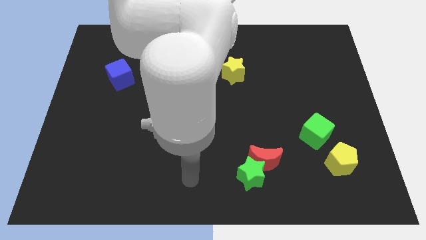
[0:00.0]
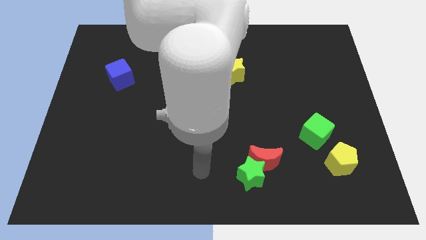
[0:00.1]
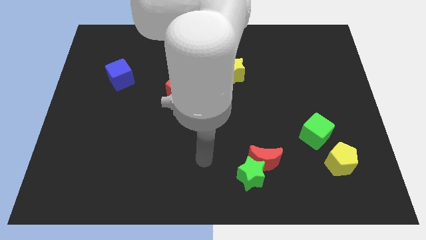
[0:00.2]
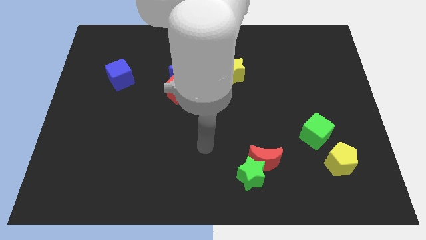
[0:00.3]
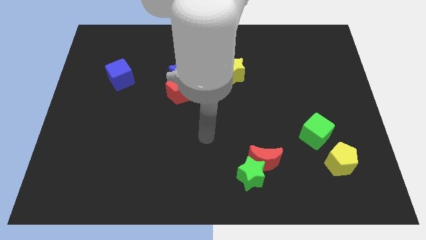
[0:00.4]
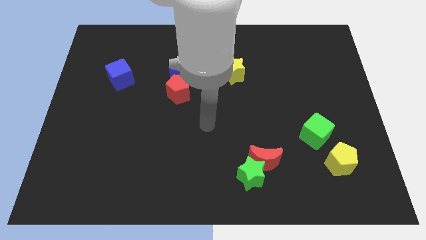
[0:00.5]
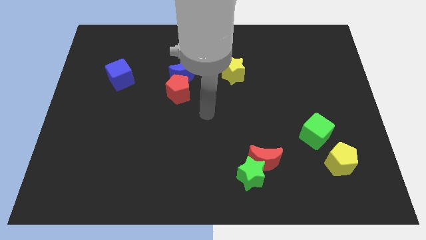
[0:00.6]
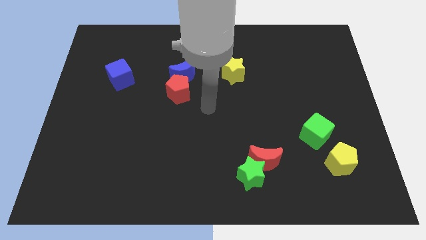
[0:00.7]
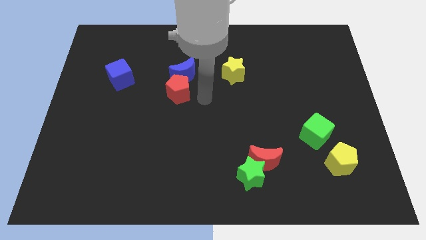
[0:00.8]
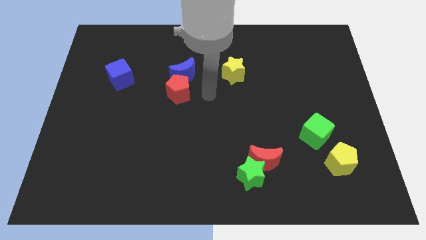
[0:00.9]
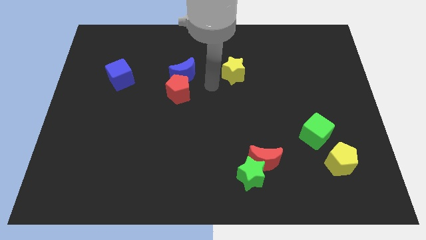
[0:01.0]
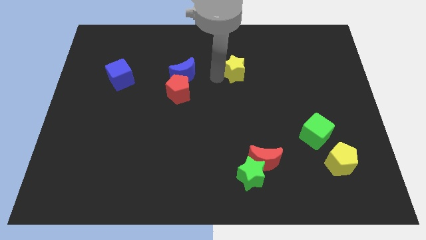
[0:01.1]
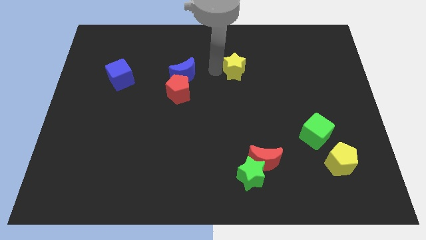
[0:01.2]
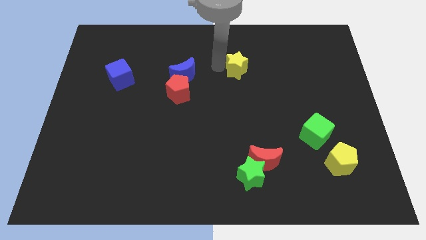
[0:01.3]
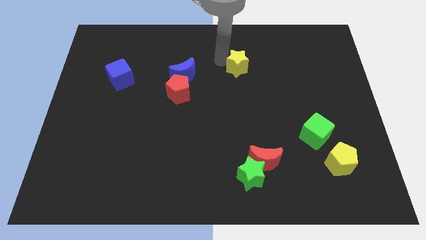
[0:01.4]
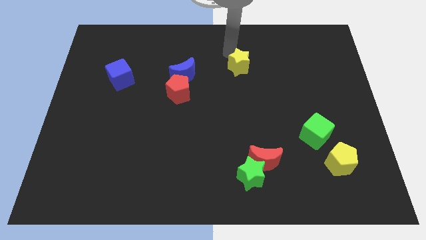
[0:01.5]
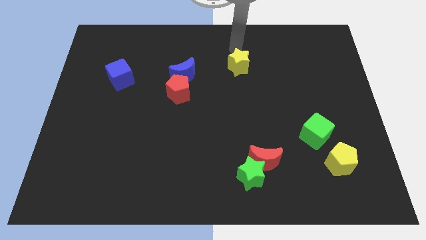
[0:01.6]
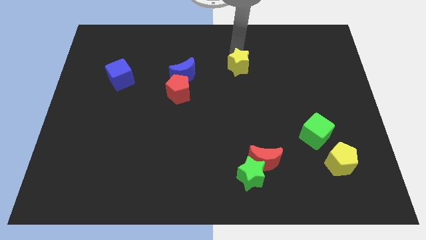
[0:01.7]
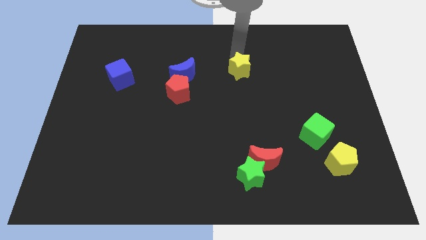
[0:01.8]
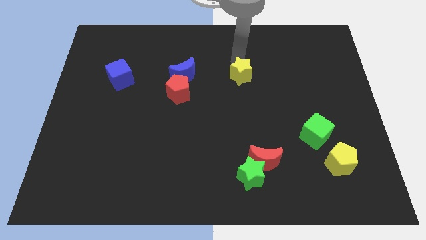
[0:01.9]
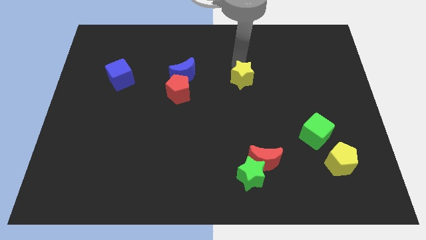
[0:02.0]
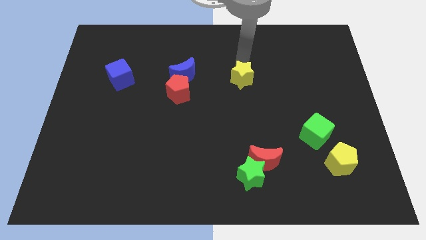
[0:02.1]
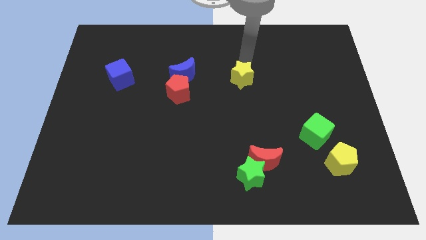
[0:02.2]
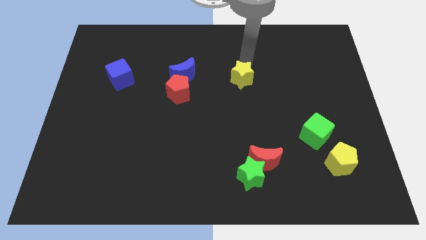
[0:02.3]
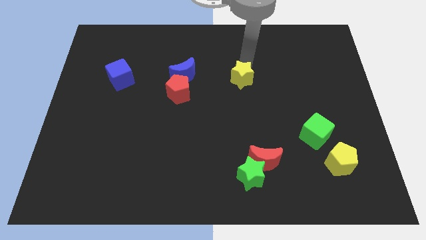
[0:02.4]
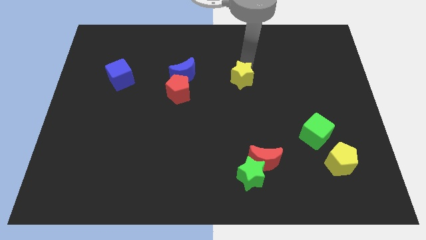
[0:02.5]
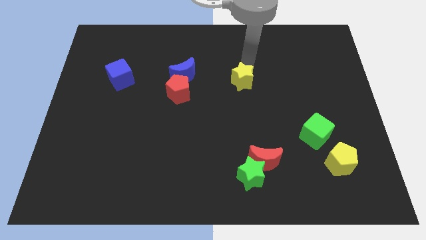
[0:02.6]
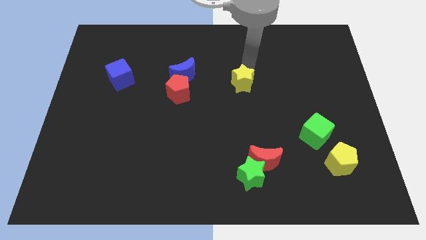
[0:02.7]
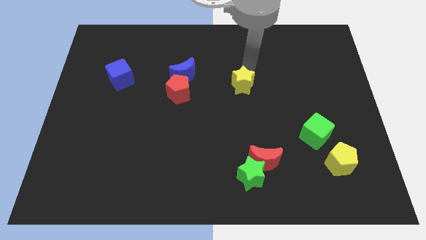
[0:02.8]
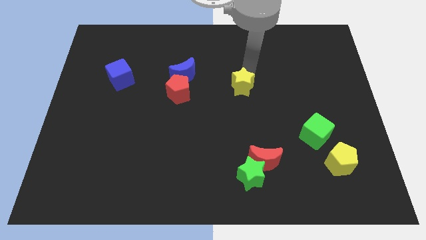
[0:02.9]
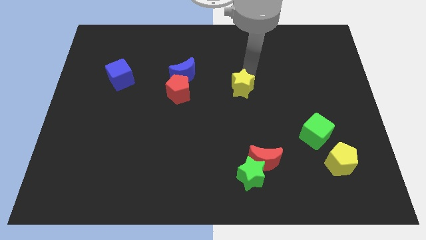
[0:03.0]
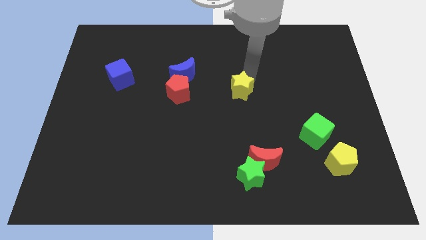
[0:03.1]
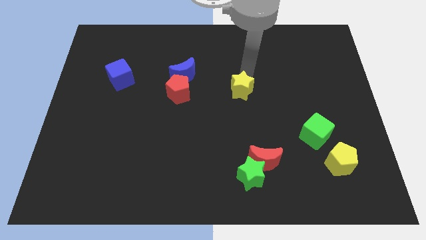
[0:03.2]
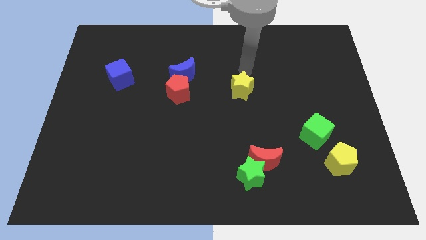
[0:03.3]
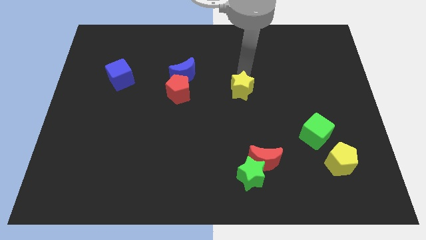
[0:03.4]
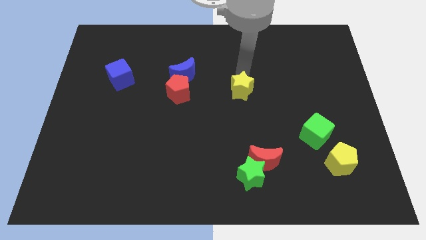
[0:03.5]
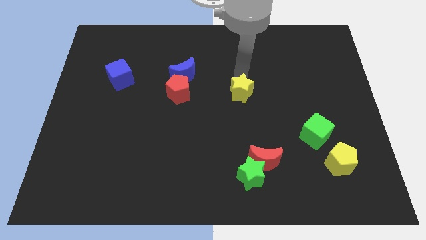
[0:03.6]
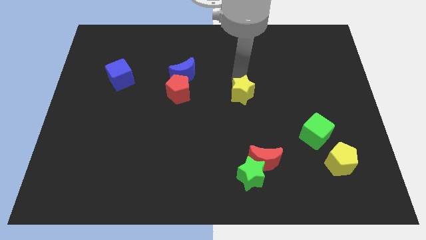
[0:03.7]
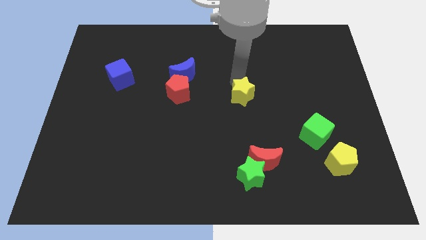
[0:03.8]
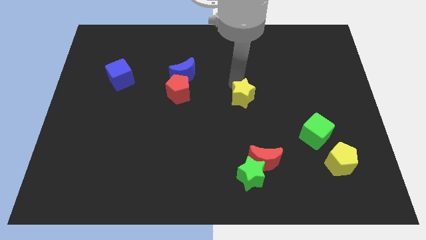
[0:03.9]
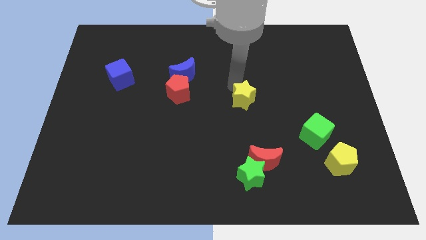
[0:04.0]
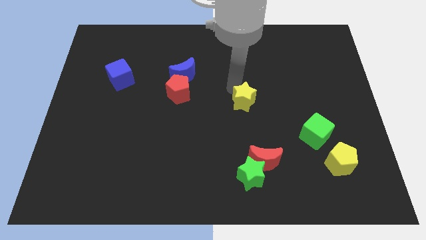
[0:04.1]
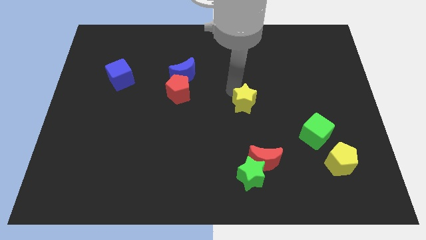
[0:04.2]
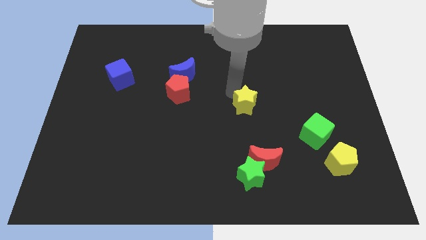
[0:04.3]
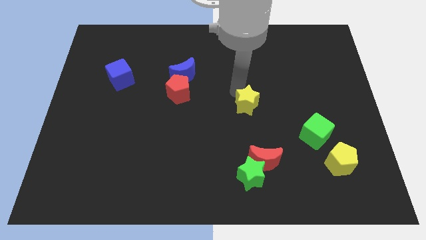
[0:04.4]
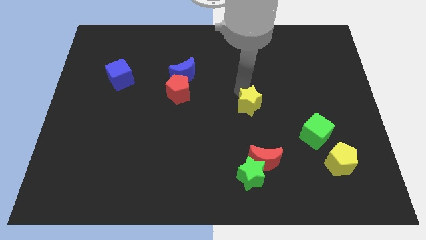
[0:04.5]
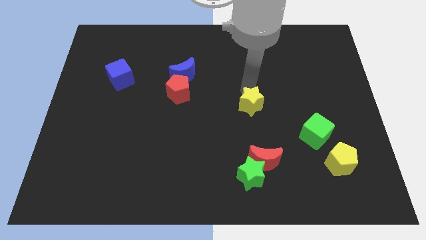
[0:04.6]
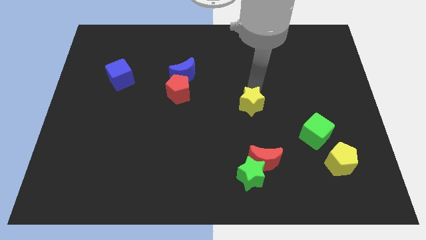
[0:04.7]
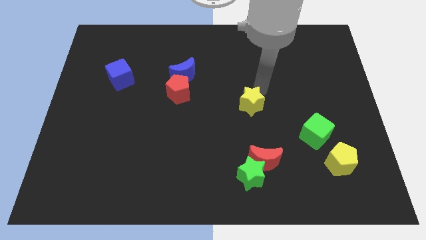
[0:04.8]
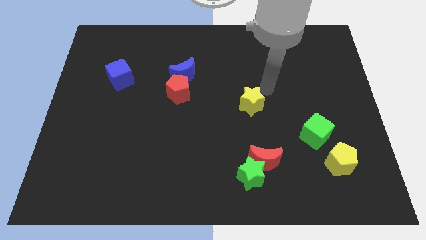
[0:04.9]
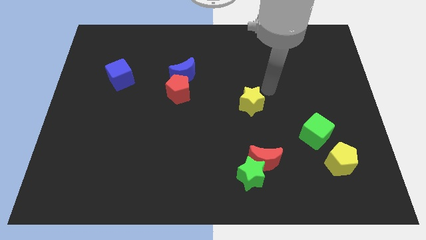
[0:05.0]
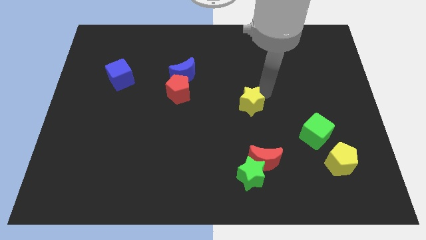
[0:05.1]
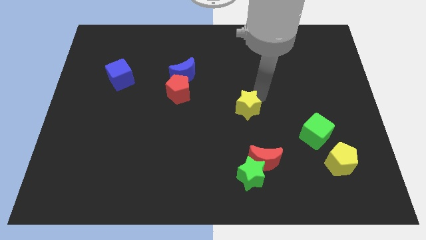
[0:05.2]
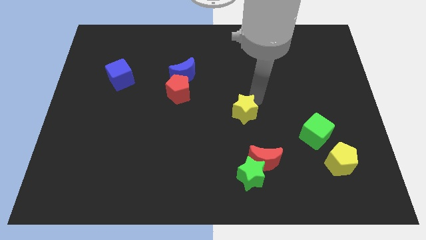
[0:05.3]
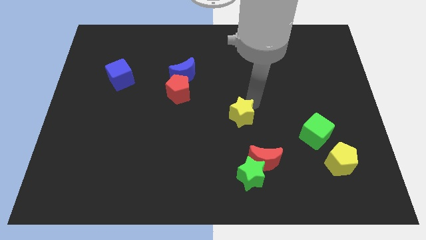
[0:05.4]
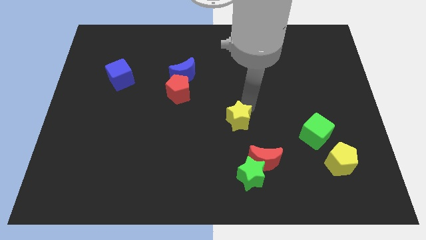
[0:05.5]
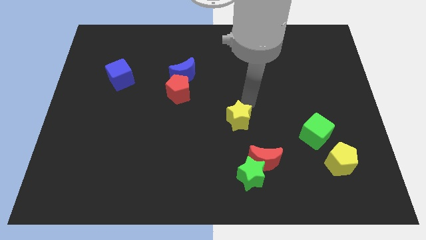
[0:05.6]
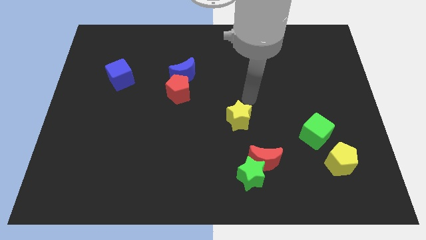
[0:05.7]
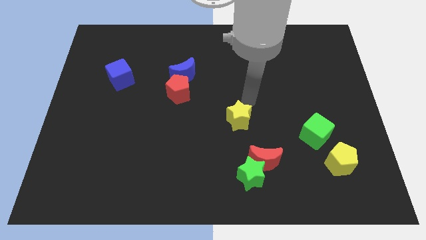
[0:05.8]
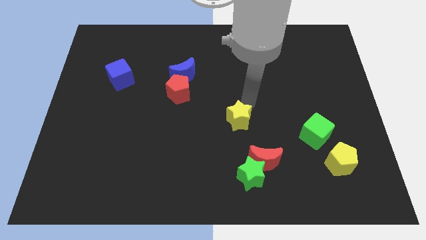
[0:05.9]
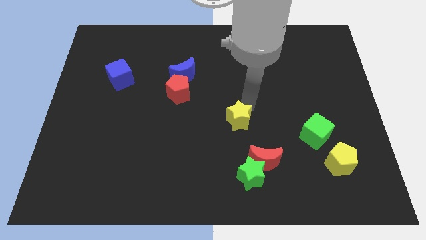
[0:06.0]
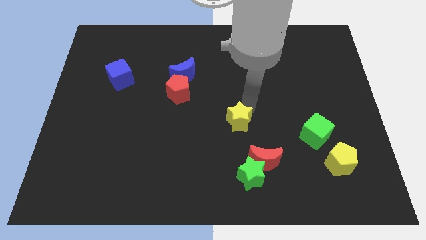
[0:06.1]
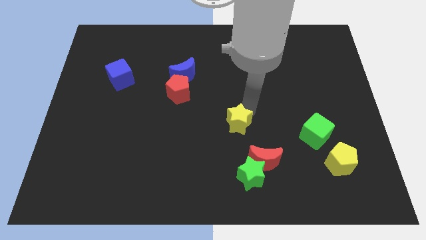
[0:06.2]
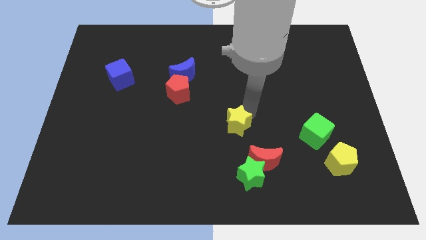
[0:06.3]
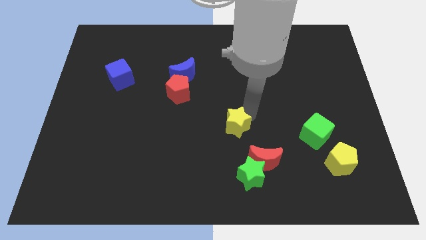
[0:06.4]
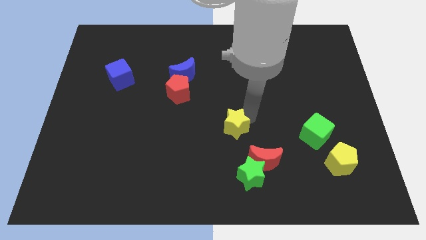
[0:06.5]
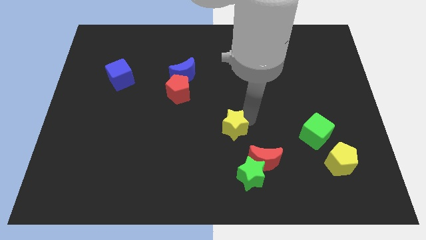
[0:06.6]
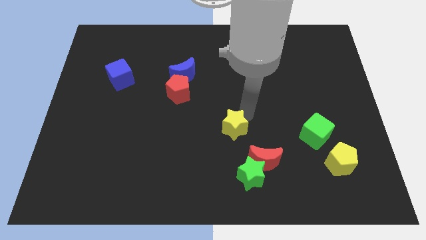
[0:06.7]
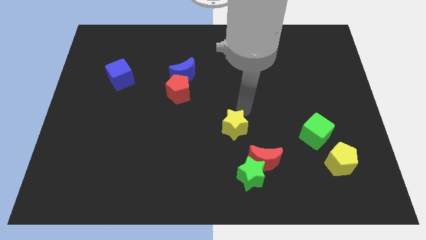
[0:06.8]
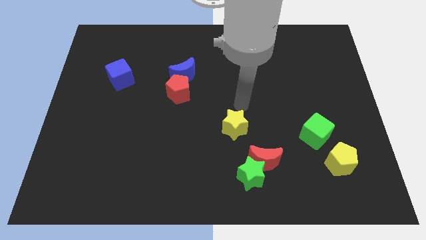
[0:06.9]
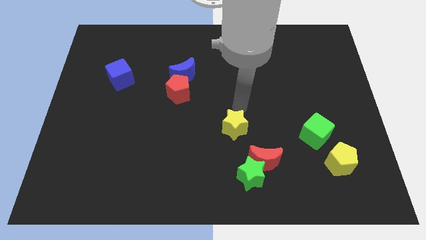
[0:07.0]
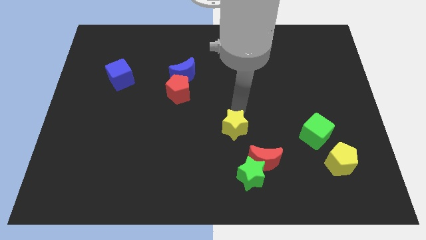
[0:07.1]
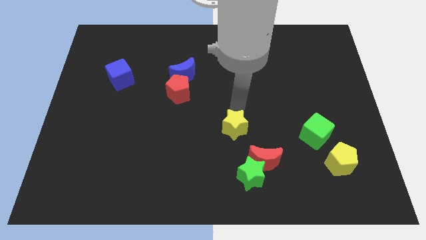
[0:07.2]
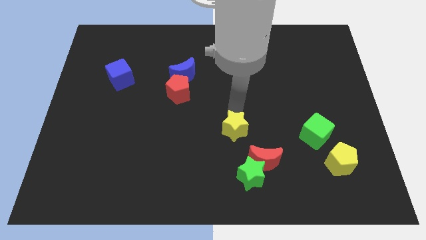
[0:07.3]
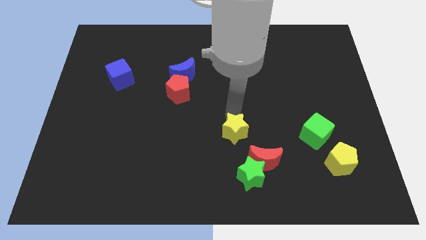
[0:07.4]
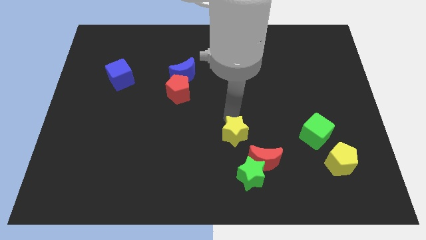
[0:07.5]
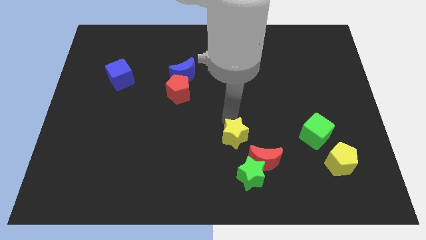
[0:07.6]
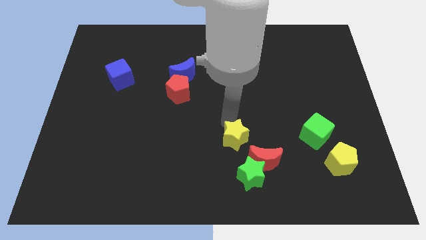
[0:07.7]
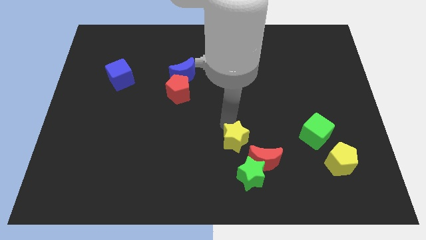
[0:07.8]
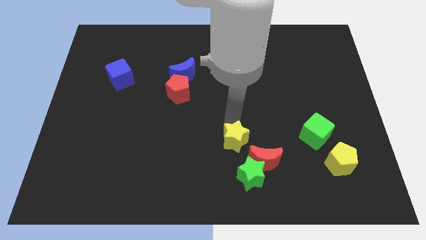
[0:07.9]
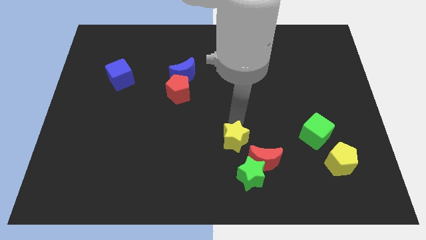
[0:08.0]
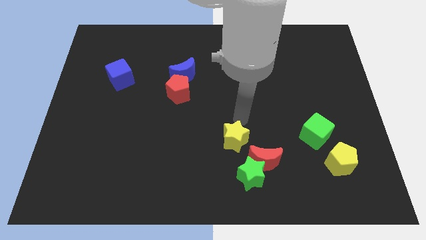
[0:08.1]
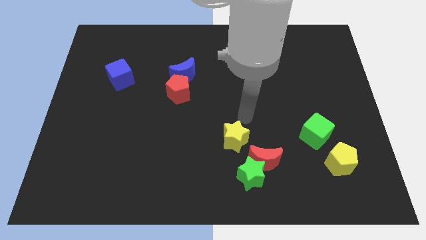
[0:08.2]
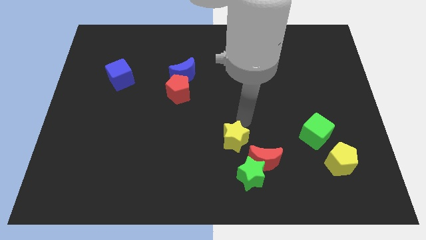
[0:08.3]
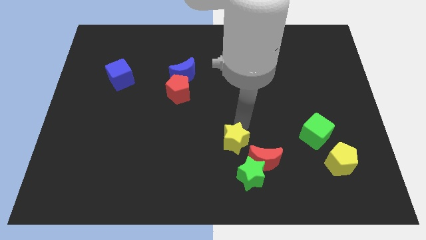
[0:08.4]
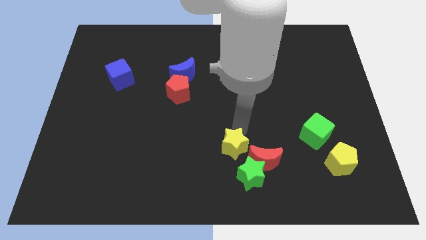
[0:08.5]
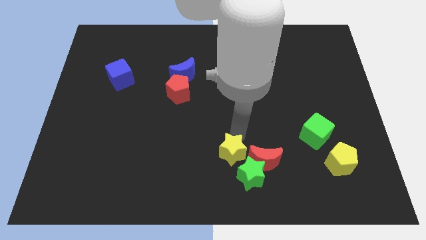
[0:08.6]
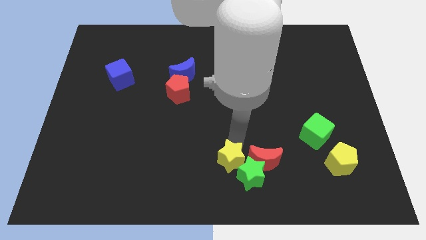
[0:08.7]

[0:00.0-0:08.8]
push the yellow star to the bottom side
